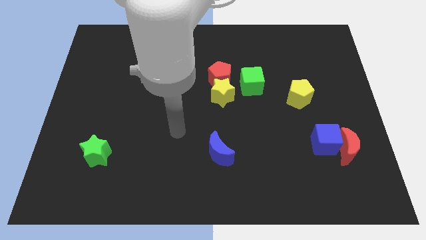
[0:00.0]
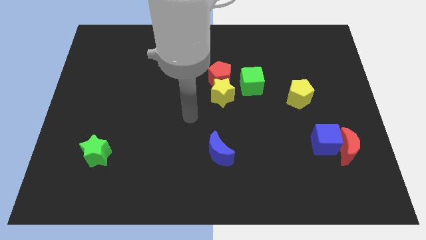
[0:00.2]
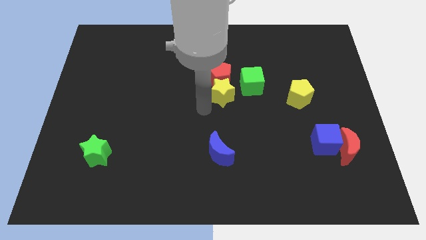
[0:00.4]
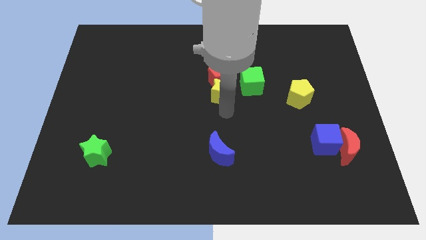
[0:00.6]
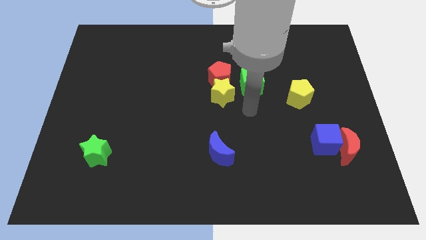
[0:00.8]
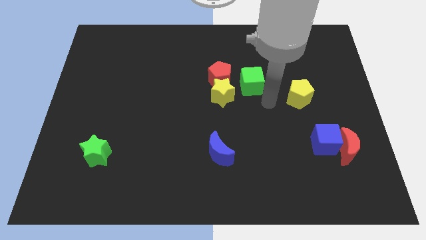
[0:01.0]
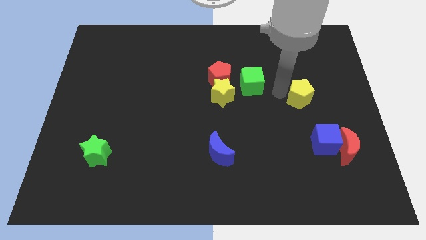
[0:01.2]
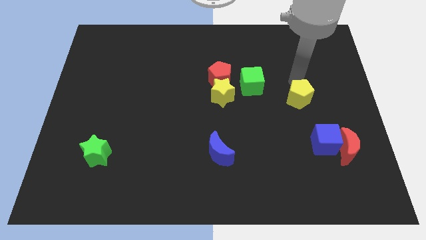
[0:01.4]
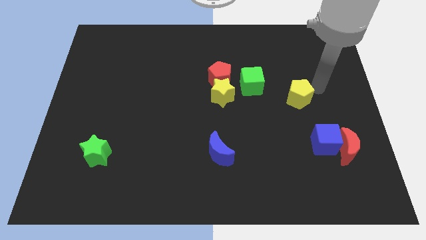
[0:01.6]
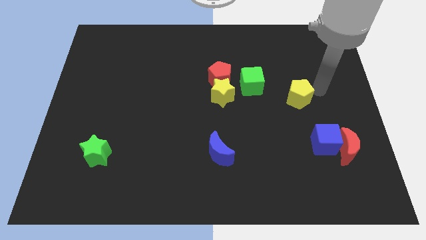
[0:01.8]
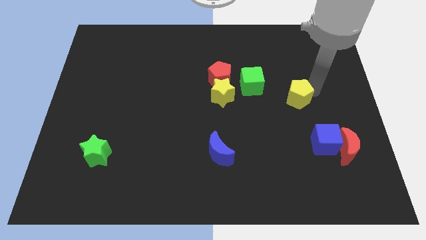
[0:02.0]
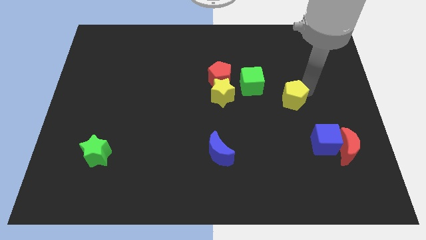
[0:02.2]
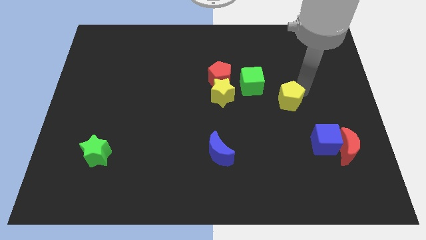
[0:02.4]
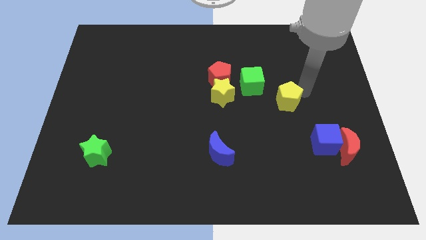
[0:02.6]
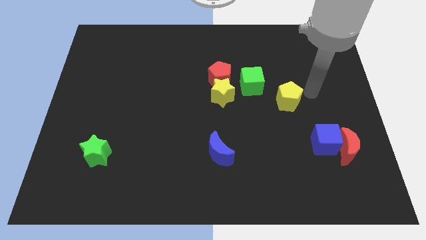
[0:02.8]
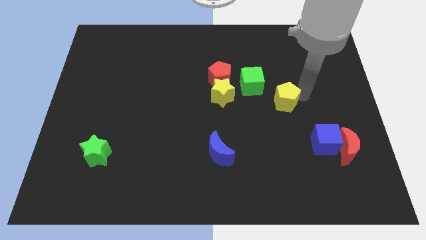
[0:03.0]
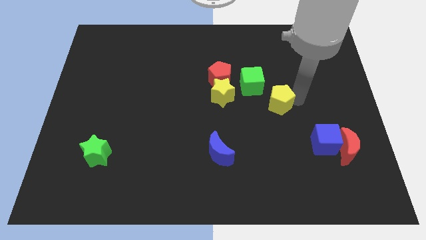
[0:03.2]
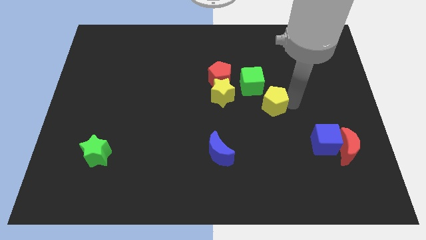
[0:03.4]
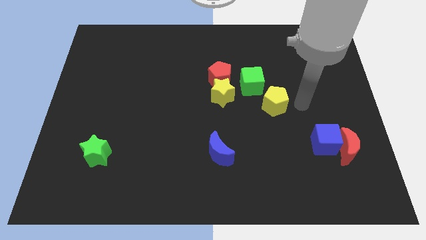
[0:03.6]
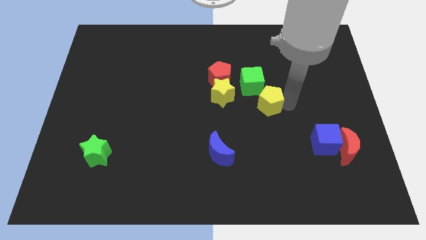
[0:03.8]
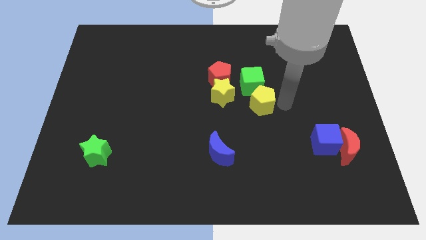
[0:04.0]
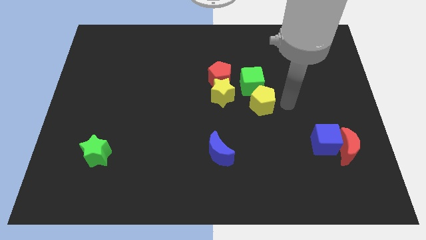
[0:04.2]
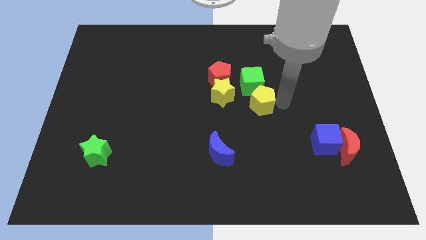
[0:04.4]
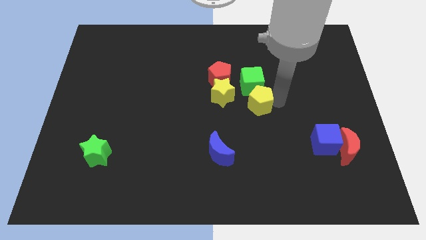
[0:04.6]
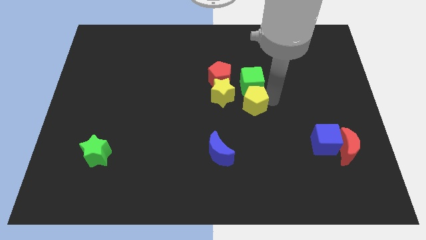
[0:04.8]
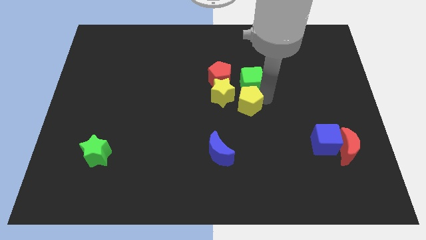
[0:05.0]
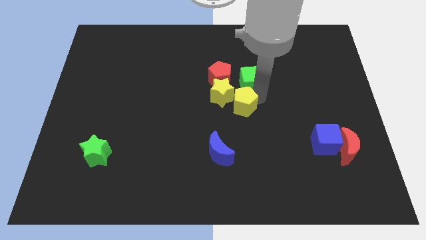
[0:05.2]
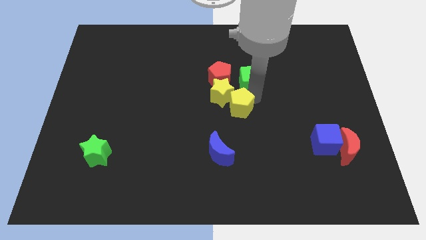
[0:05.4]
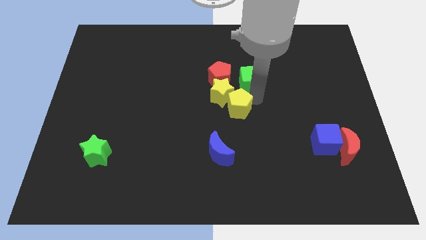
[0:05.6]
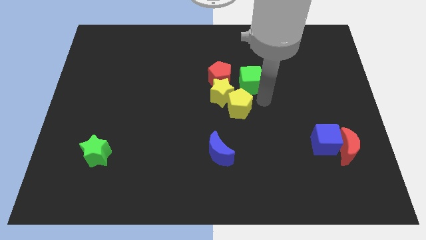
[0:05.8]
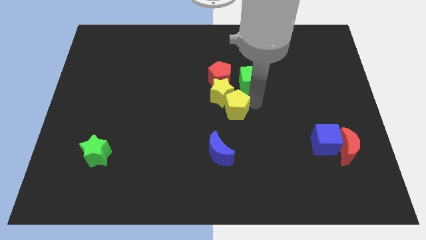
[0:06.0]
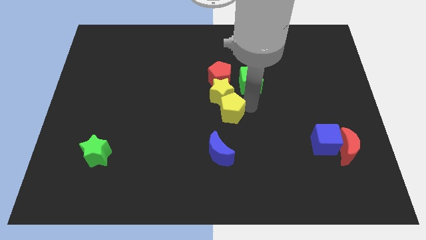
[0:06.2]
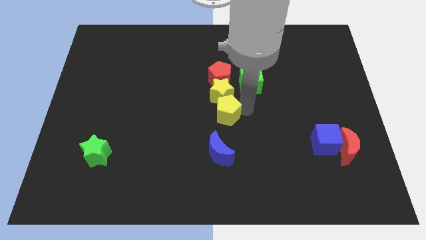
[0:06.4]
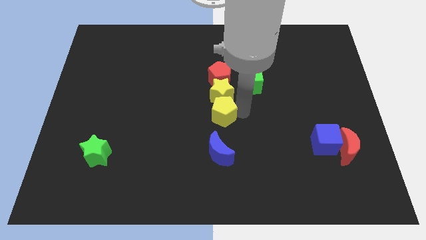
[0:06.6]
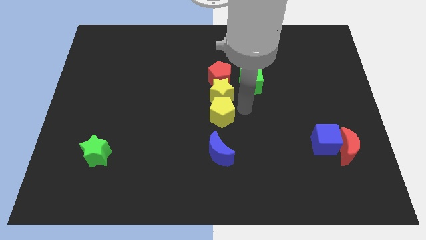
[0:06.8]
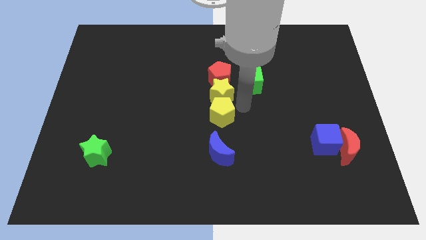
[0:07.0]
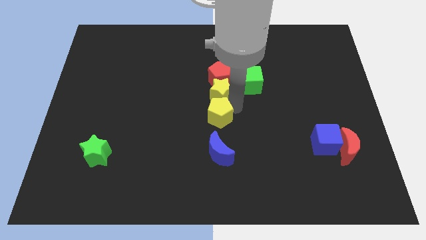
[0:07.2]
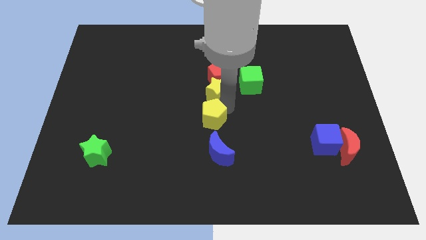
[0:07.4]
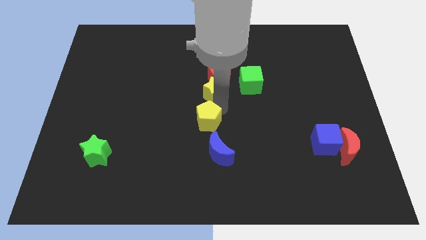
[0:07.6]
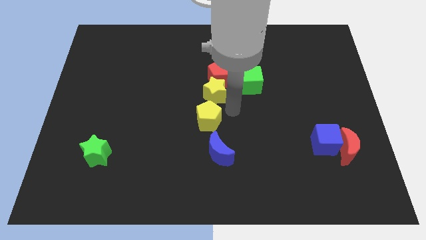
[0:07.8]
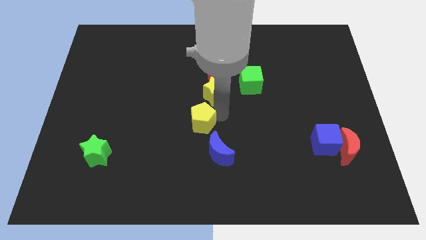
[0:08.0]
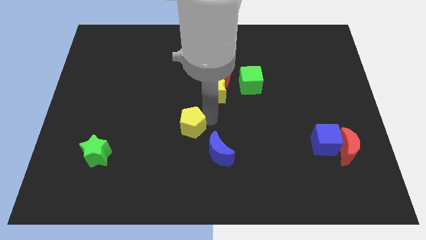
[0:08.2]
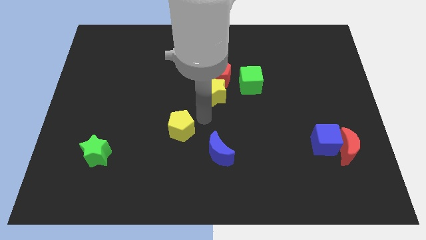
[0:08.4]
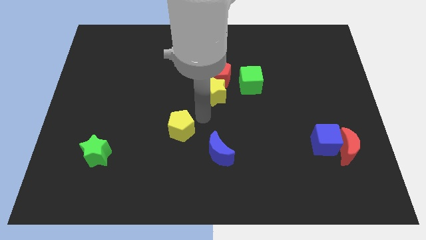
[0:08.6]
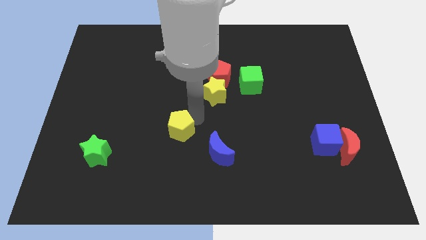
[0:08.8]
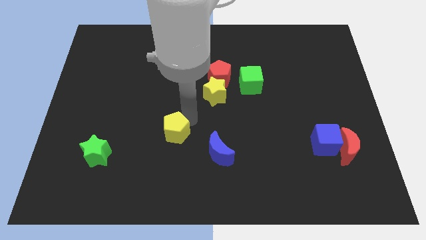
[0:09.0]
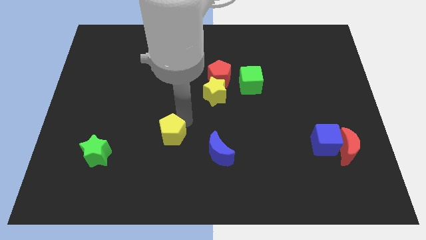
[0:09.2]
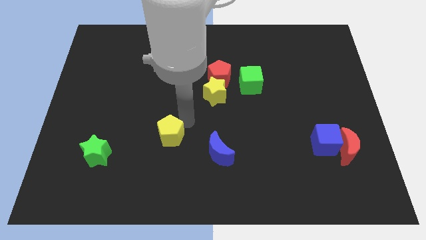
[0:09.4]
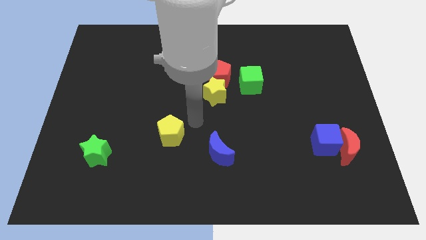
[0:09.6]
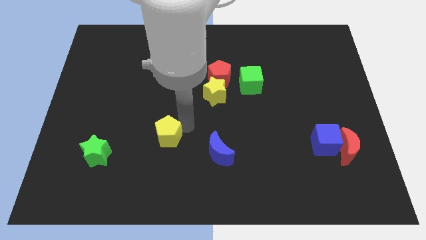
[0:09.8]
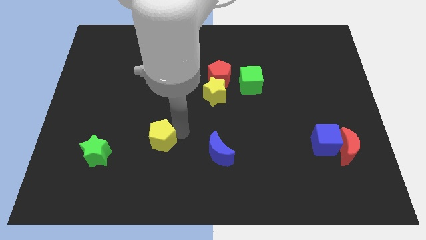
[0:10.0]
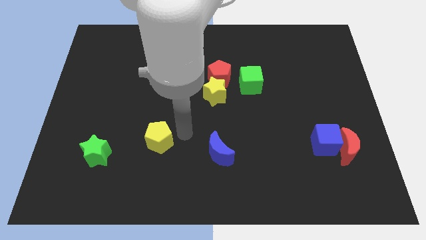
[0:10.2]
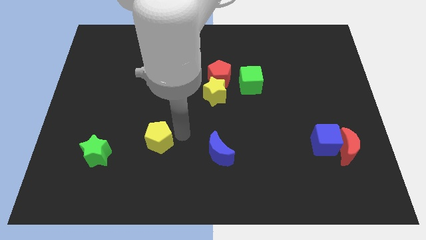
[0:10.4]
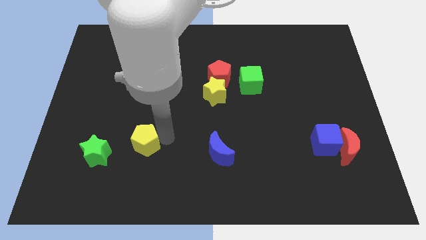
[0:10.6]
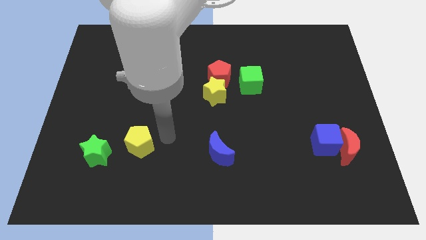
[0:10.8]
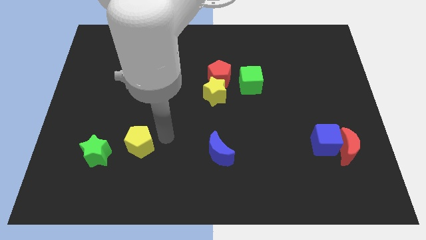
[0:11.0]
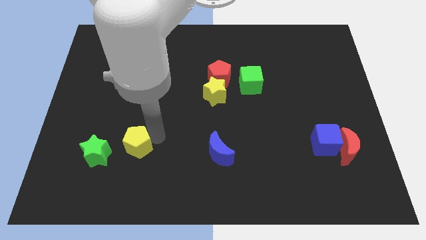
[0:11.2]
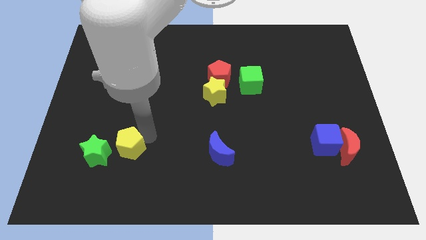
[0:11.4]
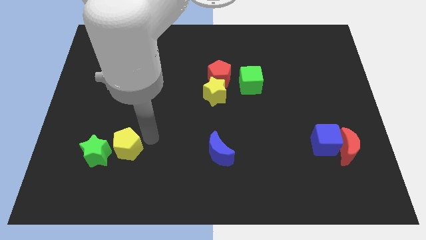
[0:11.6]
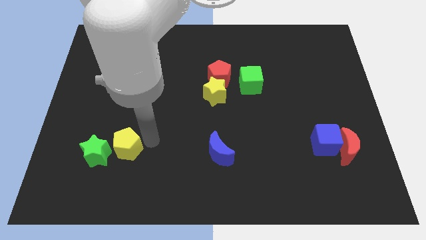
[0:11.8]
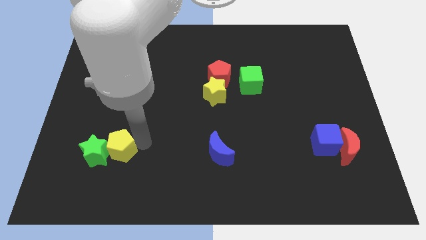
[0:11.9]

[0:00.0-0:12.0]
slide the yellow pentagon next to the green star

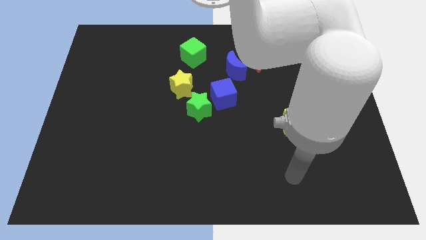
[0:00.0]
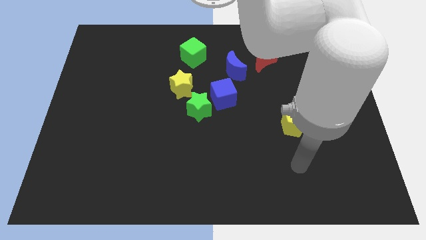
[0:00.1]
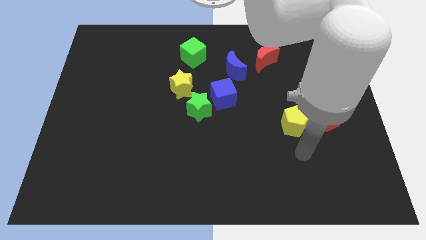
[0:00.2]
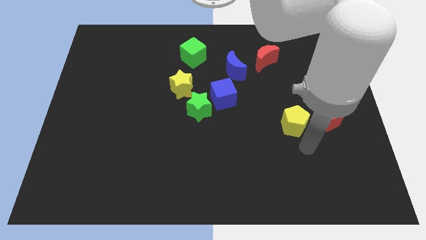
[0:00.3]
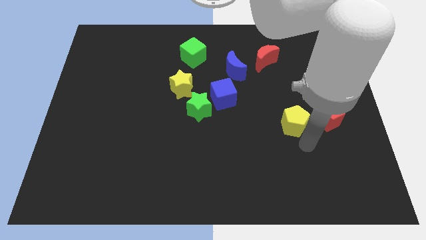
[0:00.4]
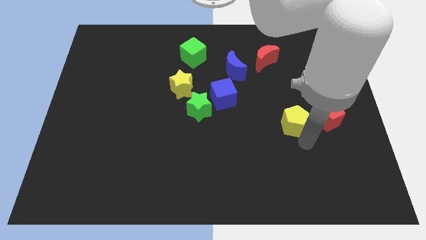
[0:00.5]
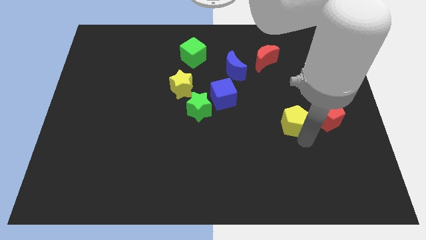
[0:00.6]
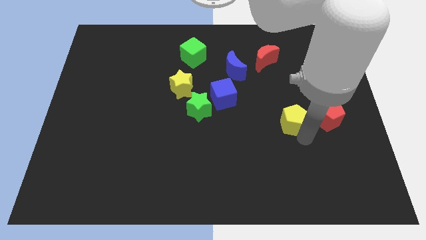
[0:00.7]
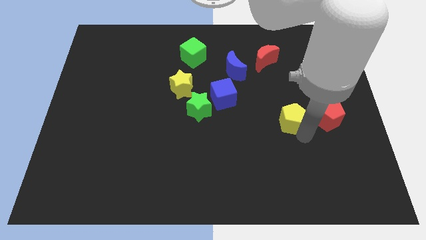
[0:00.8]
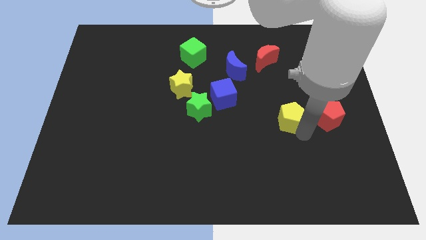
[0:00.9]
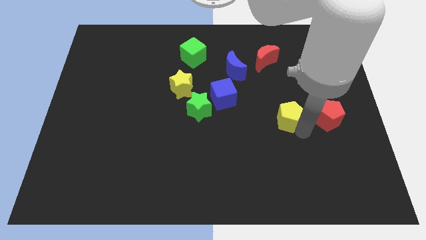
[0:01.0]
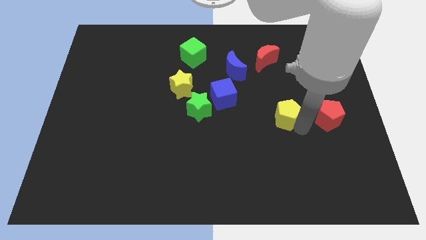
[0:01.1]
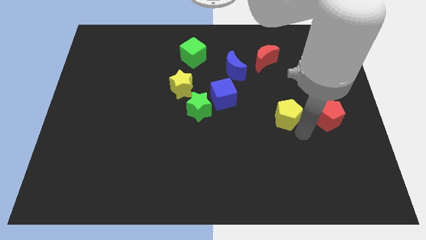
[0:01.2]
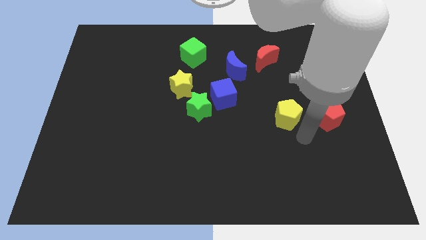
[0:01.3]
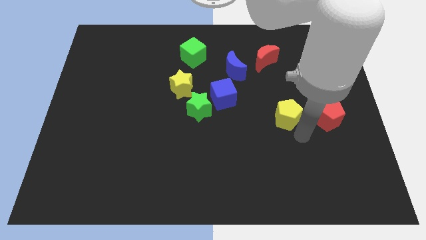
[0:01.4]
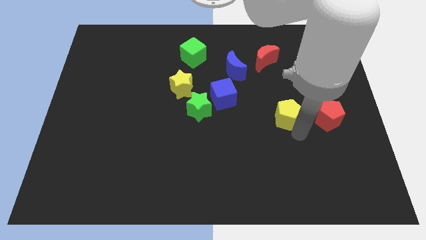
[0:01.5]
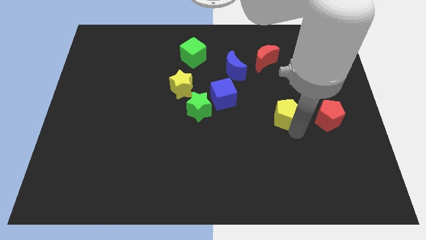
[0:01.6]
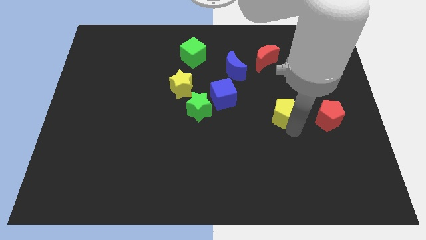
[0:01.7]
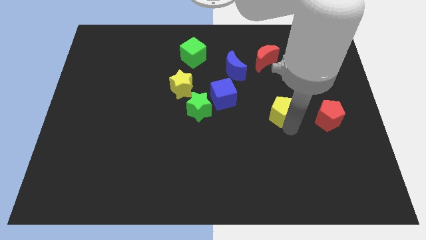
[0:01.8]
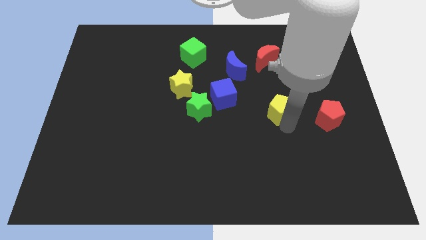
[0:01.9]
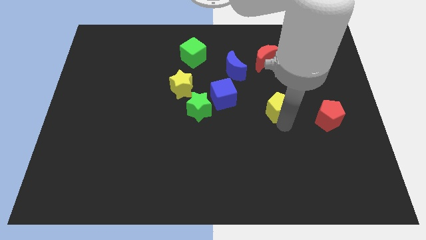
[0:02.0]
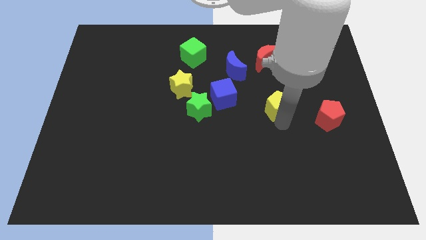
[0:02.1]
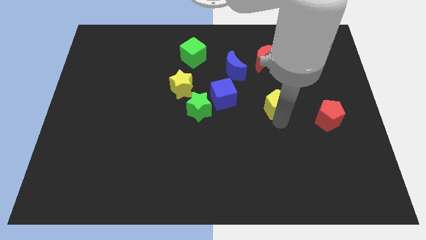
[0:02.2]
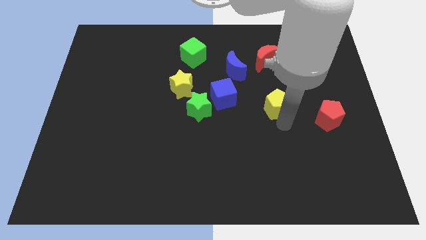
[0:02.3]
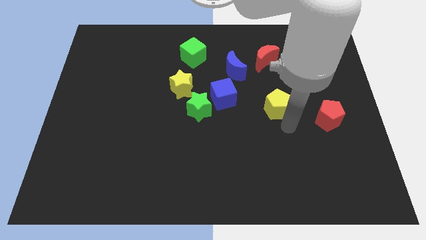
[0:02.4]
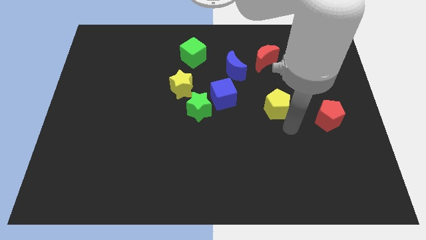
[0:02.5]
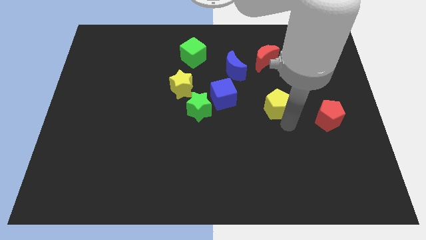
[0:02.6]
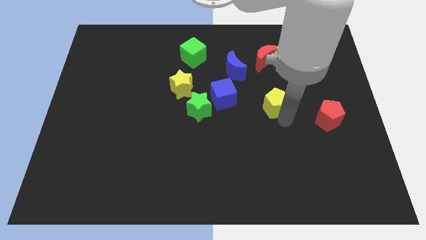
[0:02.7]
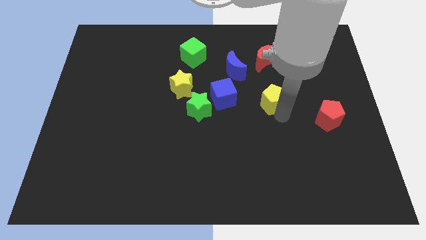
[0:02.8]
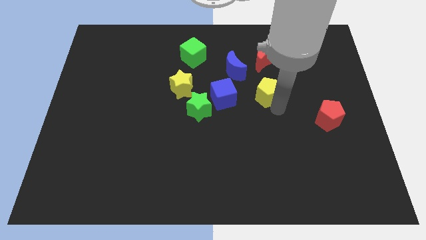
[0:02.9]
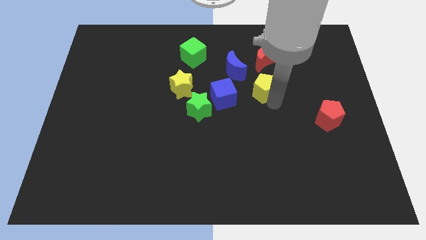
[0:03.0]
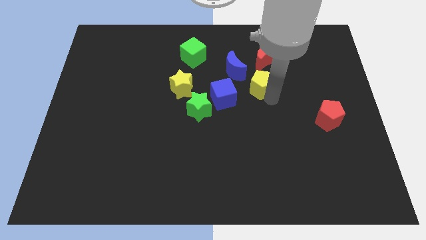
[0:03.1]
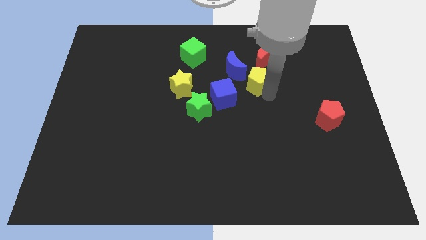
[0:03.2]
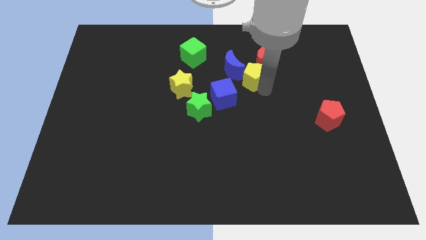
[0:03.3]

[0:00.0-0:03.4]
move the yellow pentagon next to the blue moon
